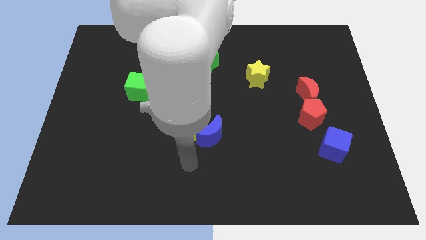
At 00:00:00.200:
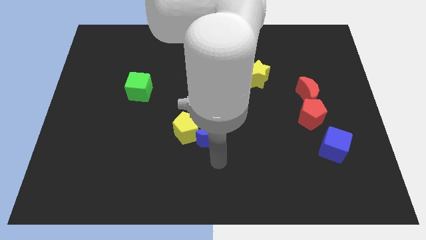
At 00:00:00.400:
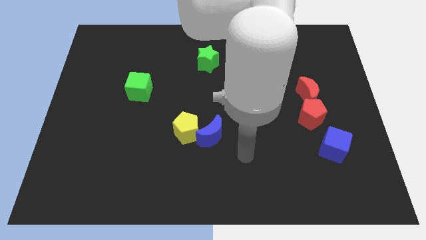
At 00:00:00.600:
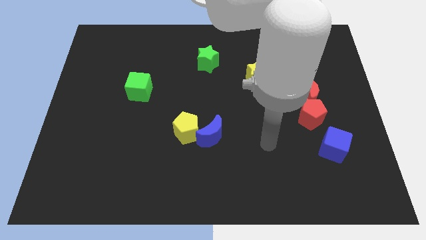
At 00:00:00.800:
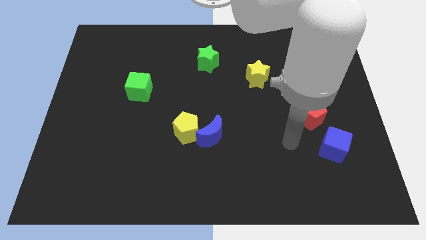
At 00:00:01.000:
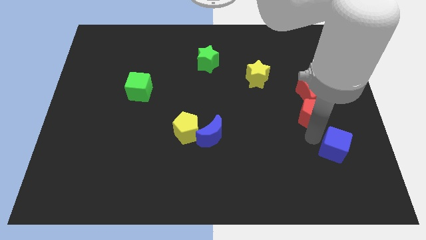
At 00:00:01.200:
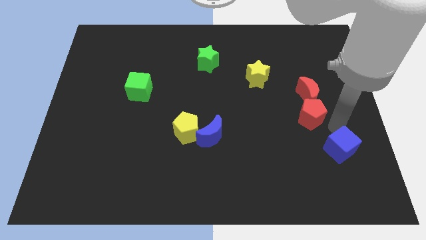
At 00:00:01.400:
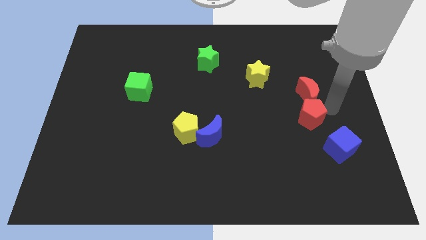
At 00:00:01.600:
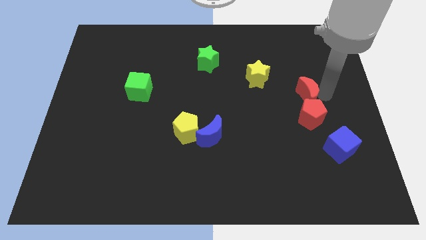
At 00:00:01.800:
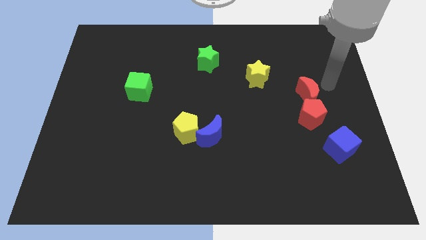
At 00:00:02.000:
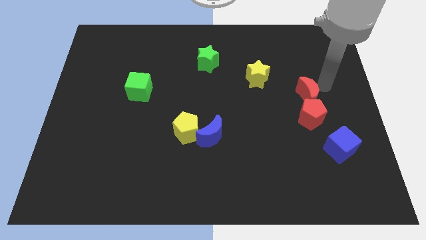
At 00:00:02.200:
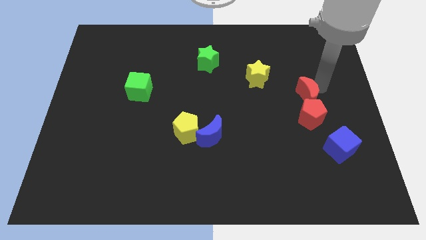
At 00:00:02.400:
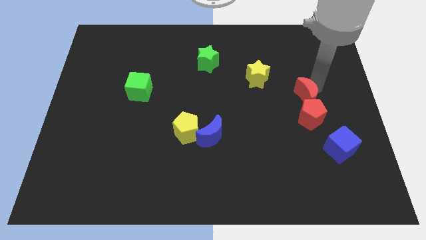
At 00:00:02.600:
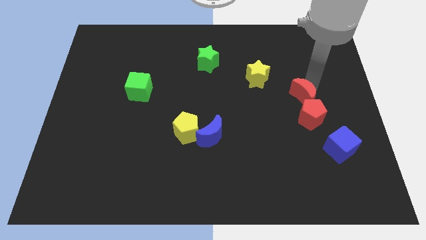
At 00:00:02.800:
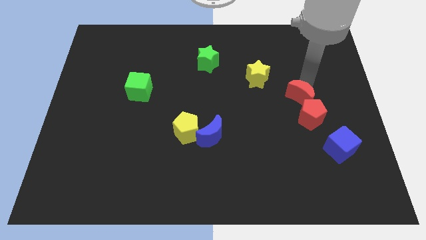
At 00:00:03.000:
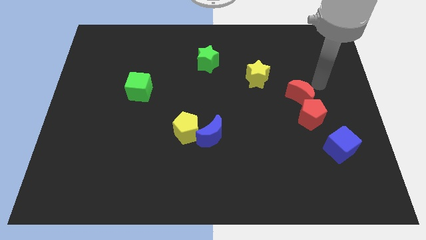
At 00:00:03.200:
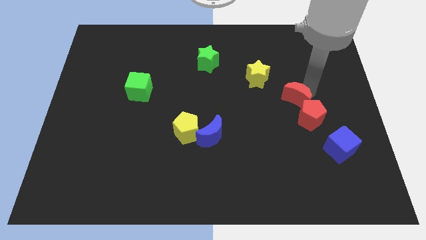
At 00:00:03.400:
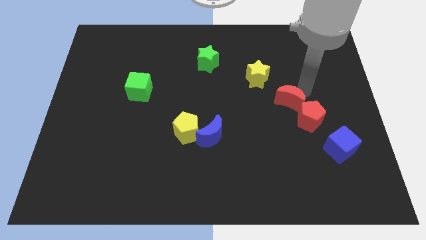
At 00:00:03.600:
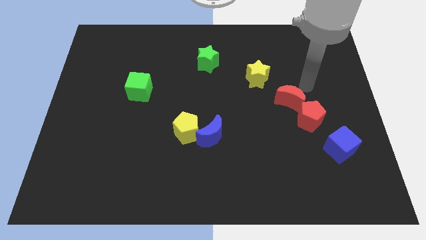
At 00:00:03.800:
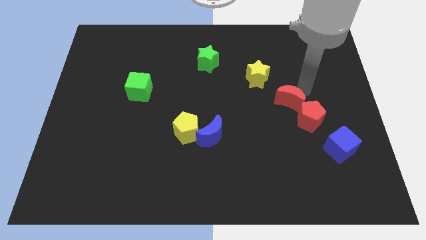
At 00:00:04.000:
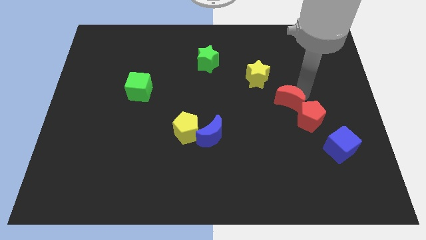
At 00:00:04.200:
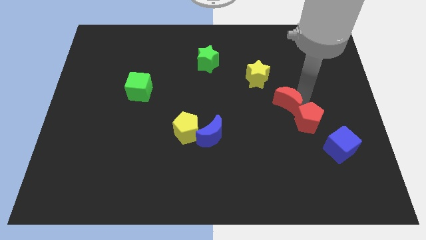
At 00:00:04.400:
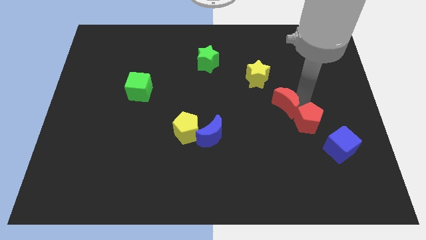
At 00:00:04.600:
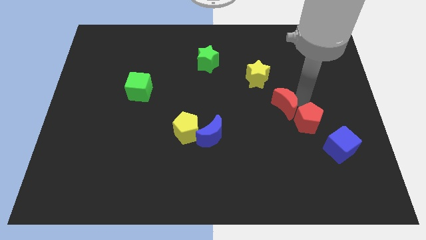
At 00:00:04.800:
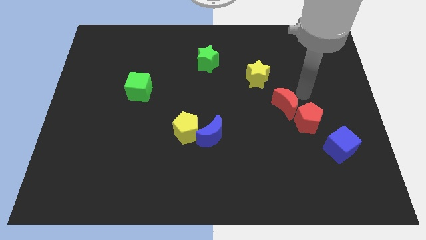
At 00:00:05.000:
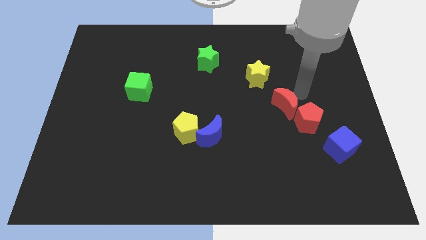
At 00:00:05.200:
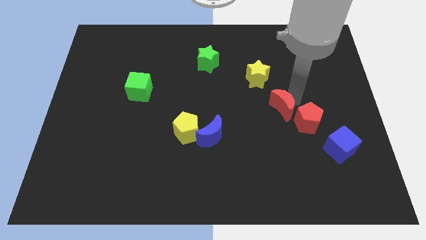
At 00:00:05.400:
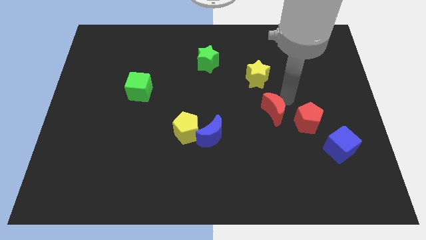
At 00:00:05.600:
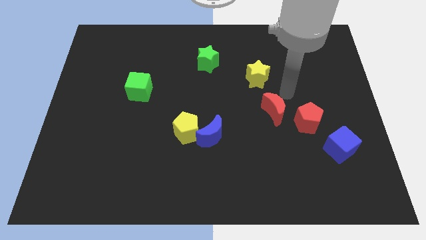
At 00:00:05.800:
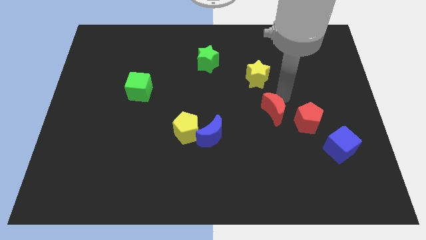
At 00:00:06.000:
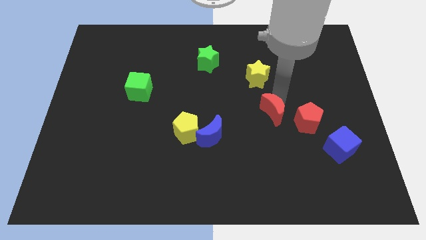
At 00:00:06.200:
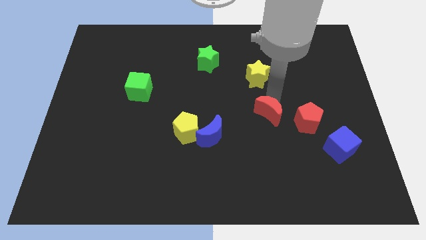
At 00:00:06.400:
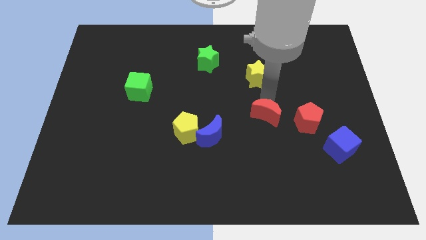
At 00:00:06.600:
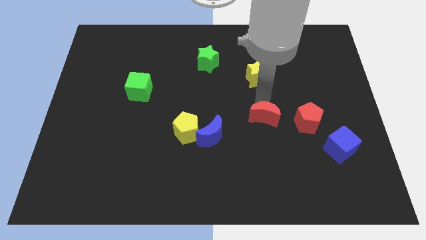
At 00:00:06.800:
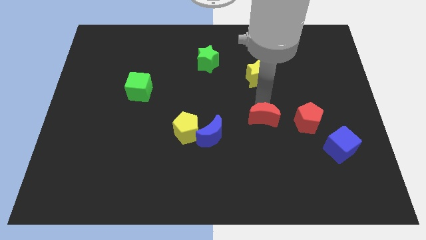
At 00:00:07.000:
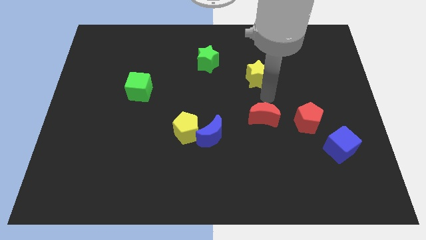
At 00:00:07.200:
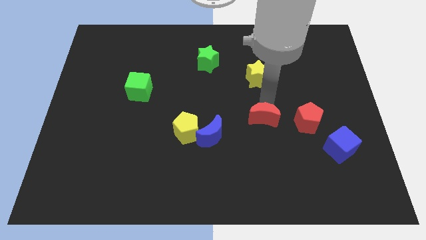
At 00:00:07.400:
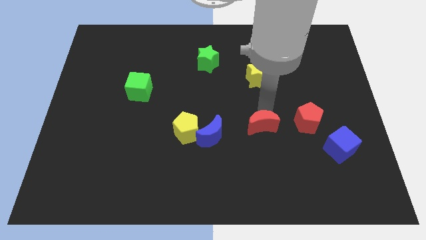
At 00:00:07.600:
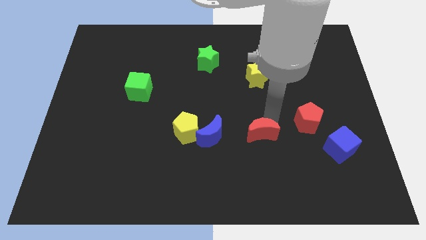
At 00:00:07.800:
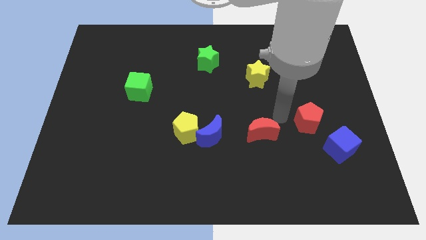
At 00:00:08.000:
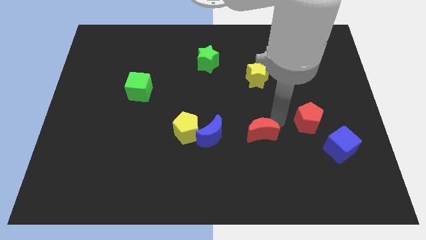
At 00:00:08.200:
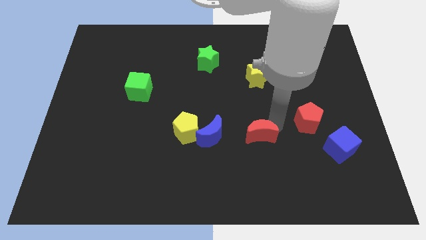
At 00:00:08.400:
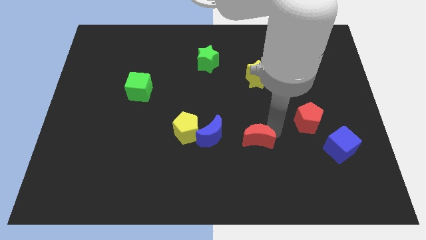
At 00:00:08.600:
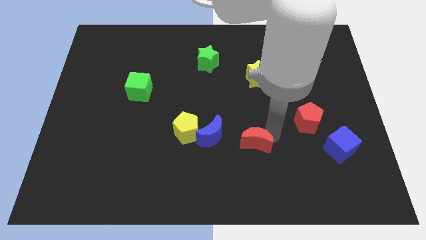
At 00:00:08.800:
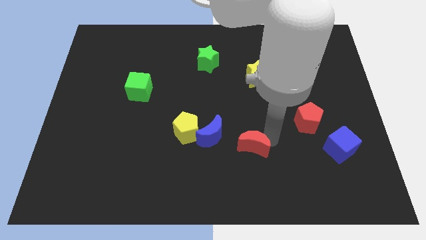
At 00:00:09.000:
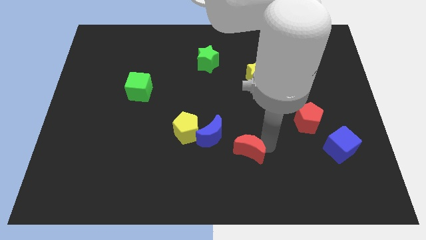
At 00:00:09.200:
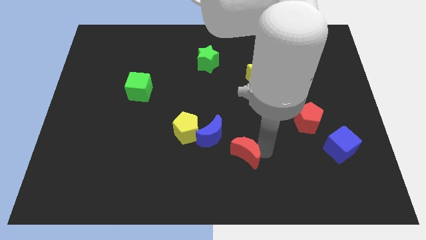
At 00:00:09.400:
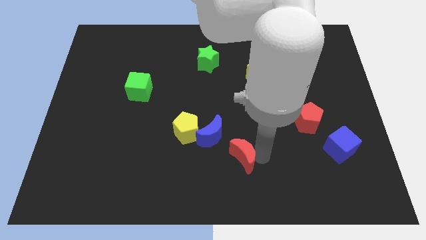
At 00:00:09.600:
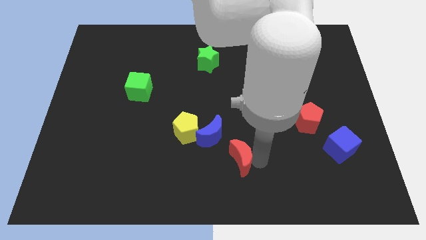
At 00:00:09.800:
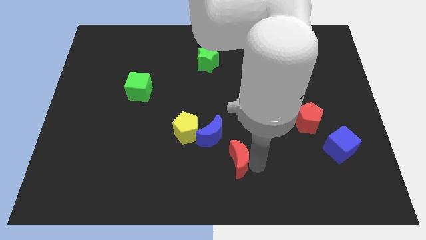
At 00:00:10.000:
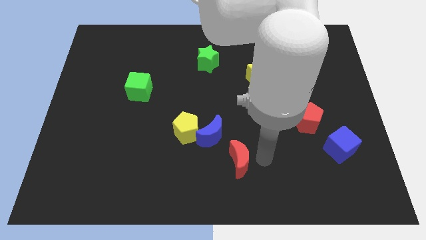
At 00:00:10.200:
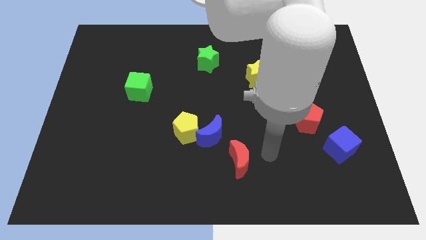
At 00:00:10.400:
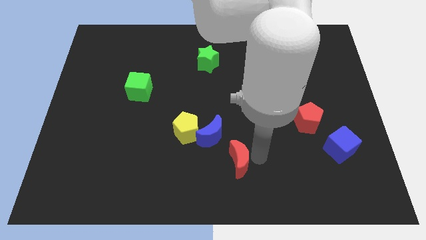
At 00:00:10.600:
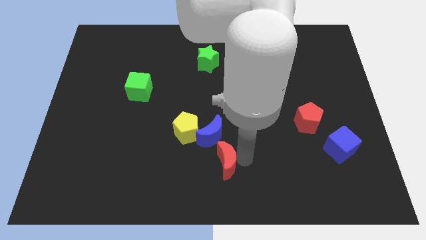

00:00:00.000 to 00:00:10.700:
move the red moon below the blue moon

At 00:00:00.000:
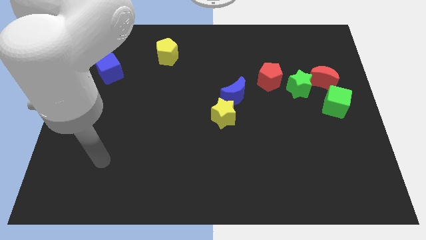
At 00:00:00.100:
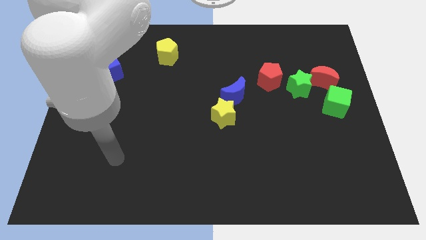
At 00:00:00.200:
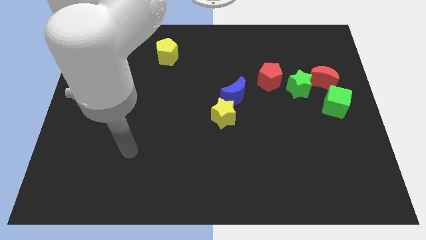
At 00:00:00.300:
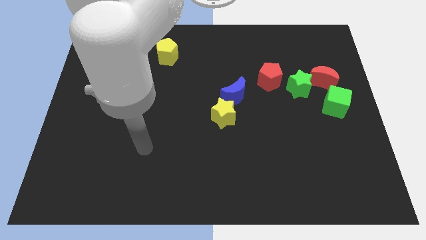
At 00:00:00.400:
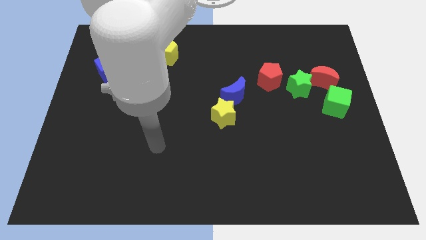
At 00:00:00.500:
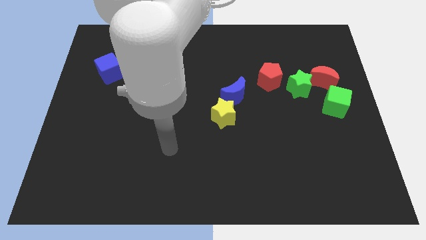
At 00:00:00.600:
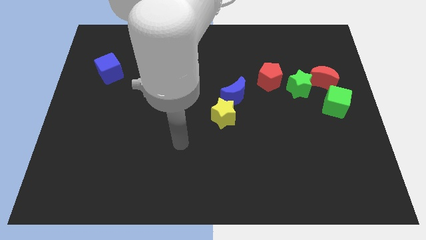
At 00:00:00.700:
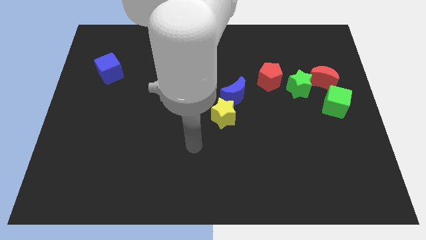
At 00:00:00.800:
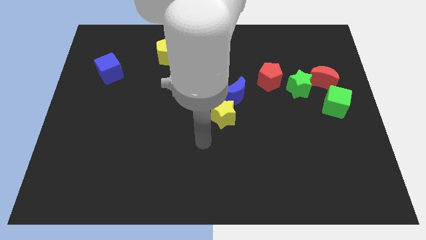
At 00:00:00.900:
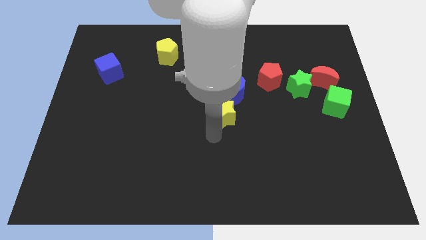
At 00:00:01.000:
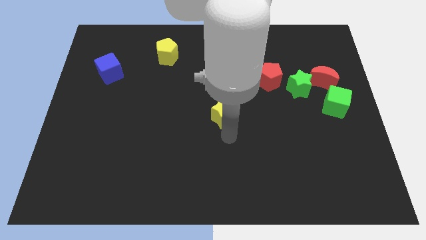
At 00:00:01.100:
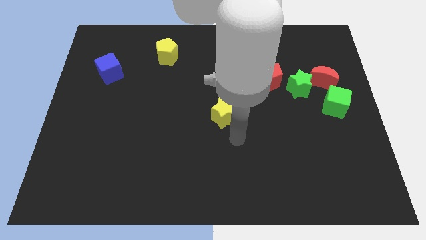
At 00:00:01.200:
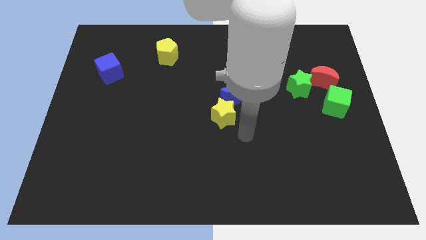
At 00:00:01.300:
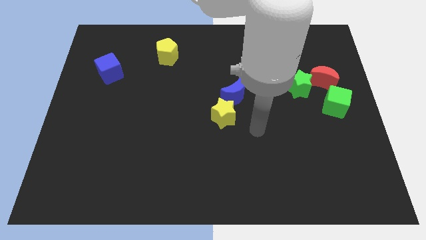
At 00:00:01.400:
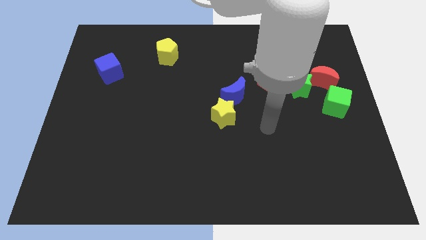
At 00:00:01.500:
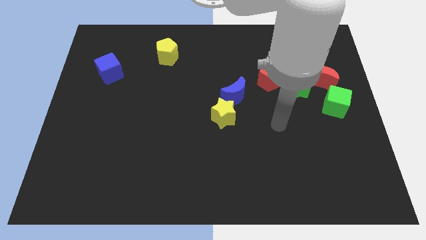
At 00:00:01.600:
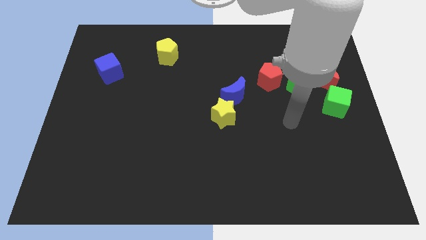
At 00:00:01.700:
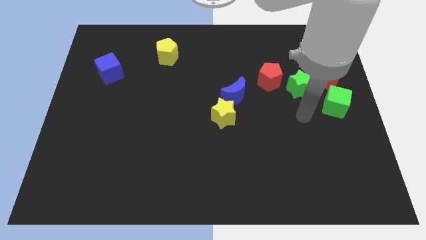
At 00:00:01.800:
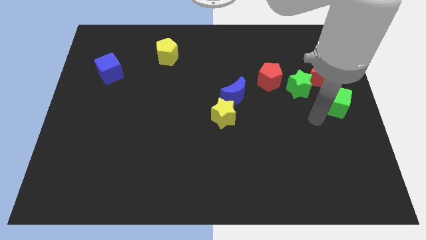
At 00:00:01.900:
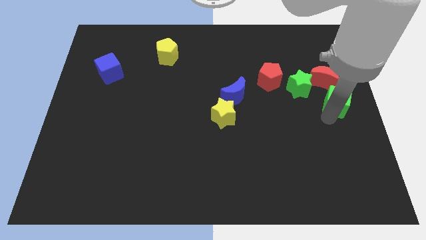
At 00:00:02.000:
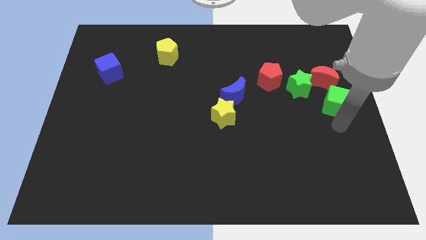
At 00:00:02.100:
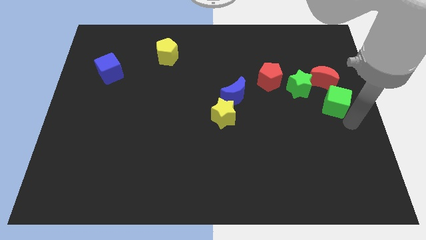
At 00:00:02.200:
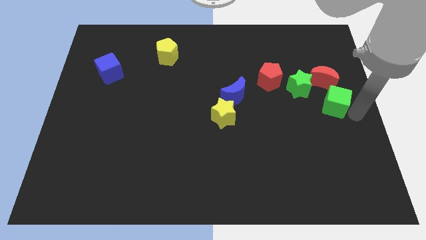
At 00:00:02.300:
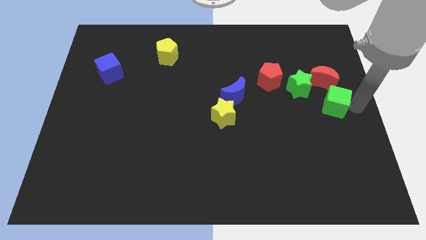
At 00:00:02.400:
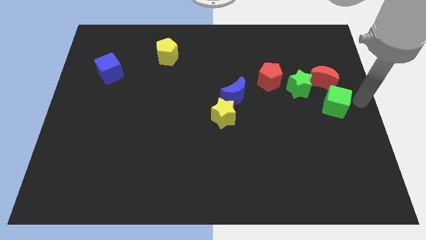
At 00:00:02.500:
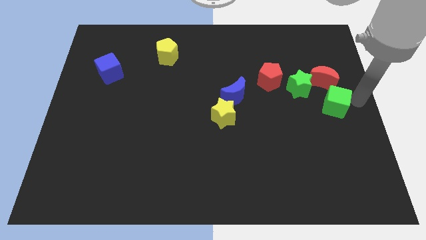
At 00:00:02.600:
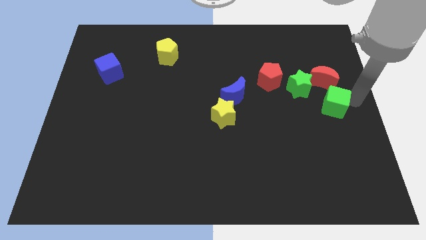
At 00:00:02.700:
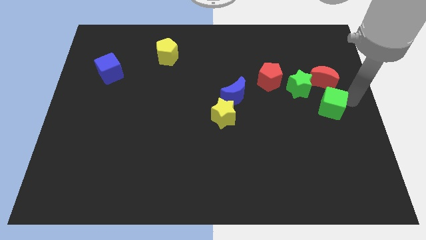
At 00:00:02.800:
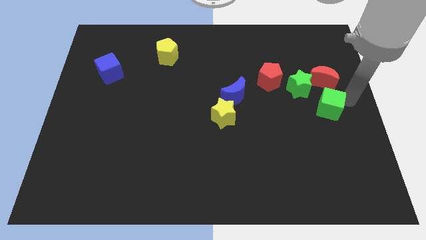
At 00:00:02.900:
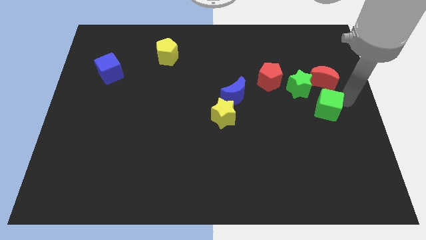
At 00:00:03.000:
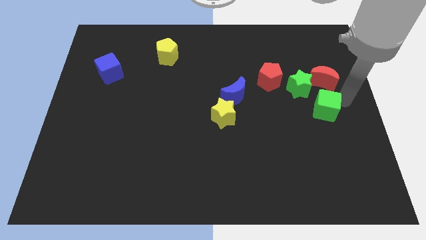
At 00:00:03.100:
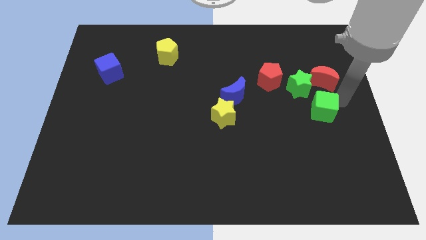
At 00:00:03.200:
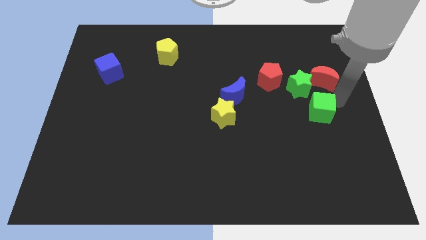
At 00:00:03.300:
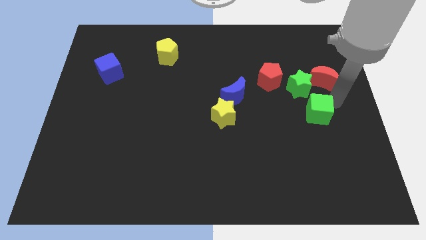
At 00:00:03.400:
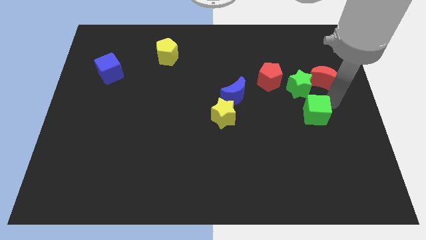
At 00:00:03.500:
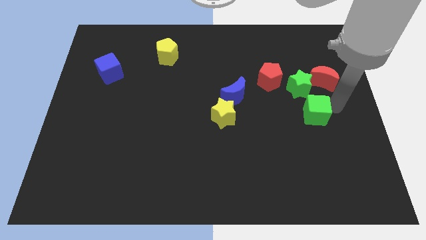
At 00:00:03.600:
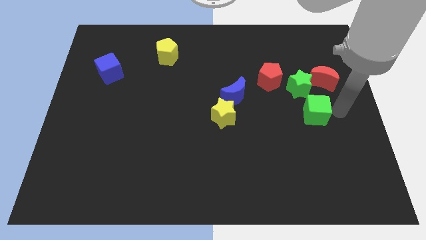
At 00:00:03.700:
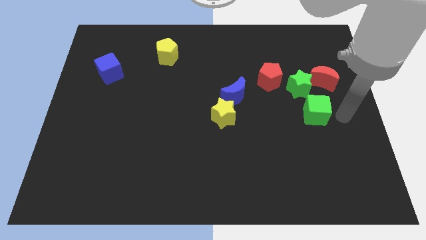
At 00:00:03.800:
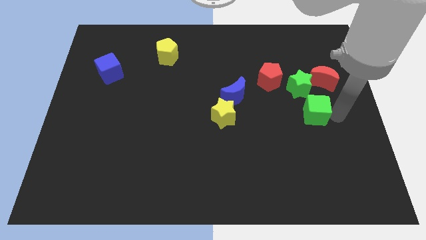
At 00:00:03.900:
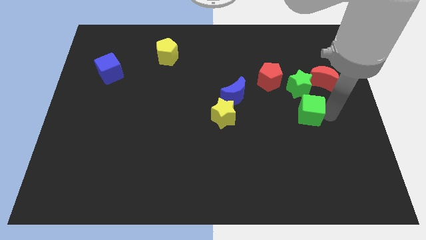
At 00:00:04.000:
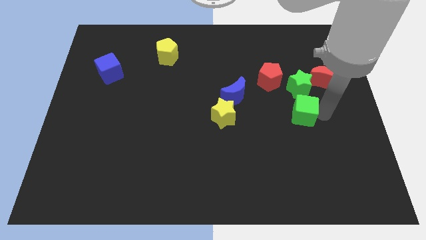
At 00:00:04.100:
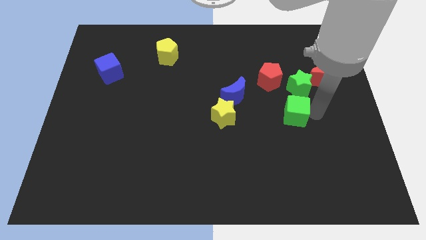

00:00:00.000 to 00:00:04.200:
push the green cube to the bottom of the red pentagon
